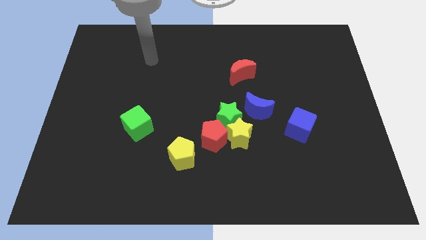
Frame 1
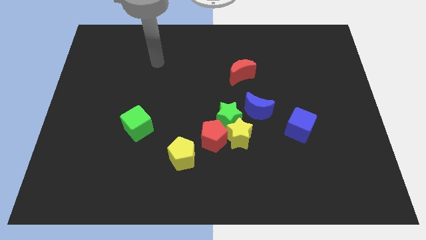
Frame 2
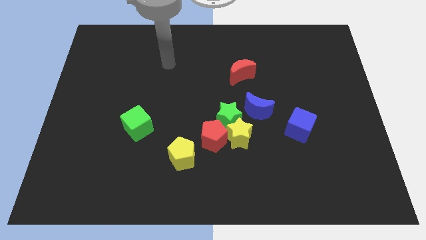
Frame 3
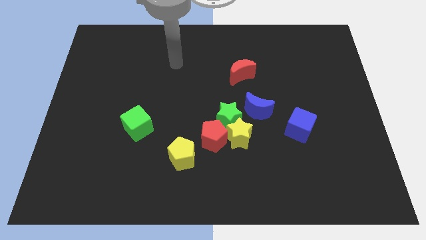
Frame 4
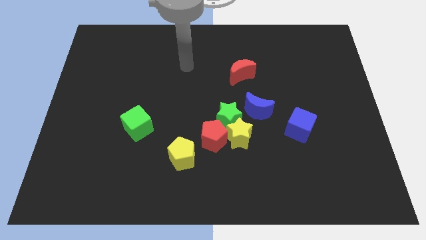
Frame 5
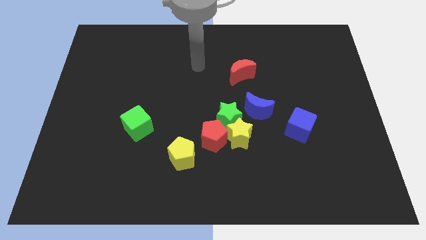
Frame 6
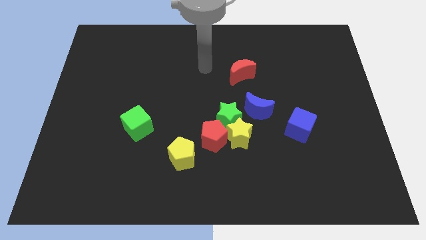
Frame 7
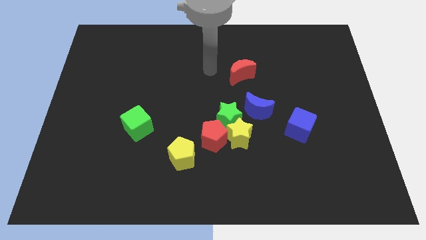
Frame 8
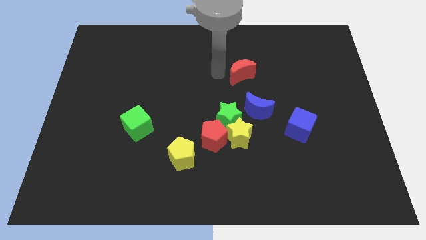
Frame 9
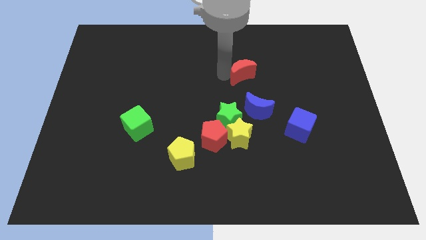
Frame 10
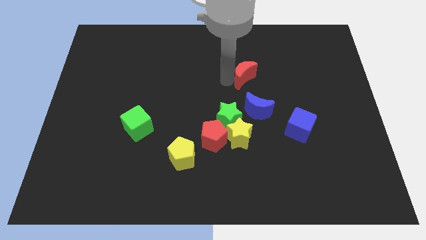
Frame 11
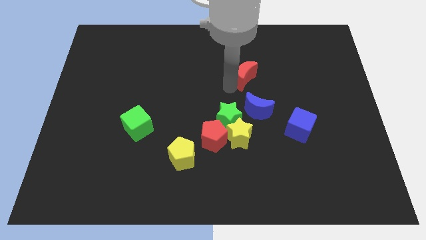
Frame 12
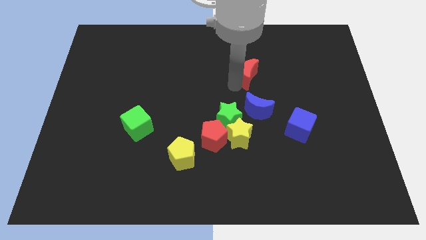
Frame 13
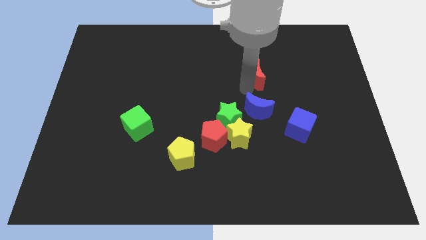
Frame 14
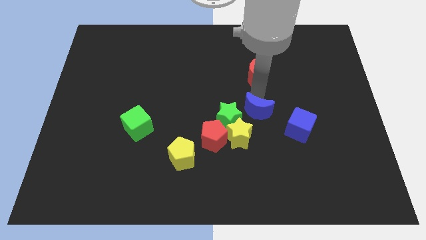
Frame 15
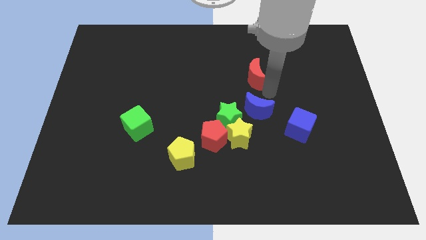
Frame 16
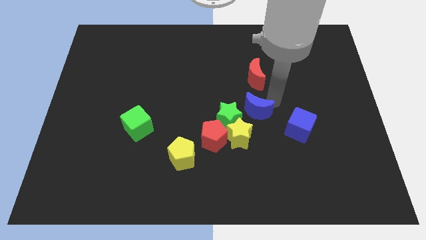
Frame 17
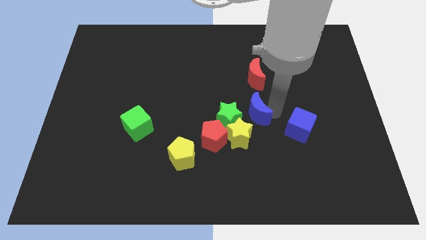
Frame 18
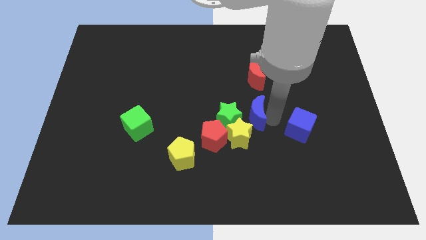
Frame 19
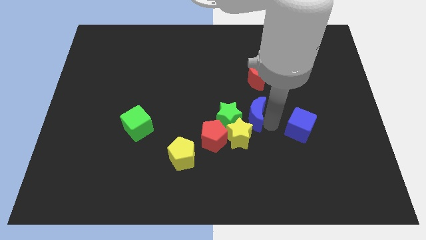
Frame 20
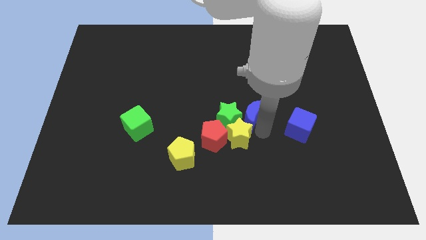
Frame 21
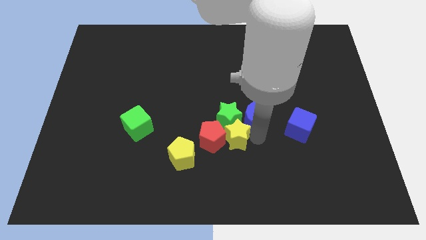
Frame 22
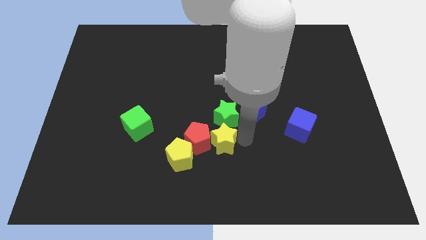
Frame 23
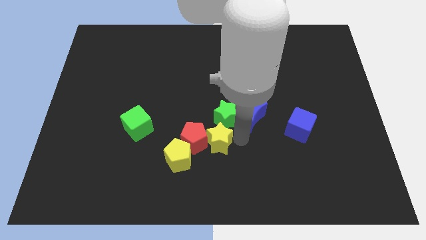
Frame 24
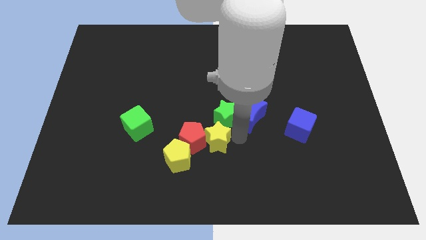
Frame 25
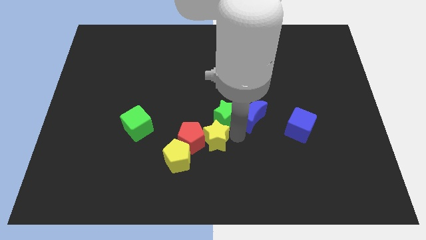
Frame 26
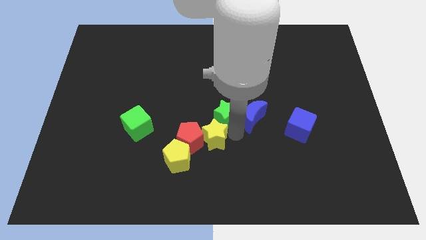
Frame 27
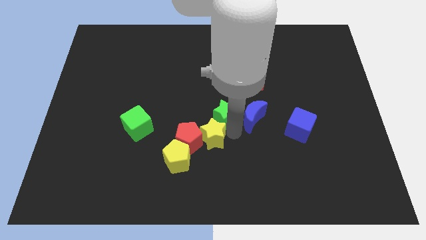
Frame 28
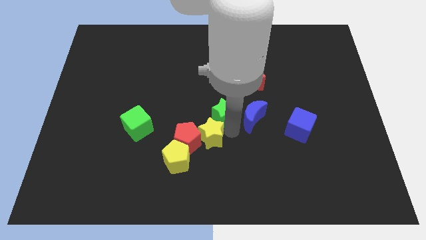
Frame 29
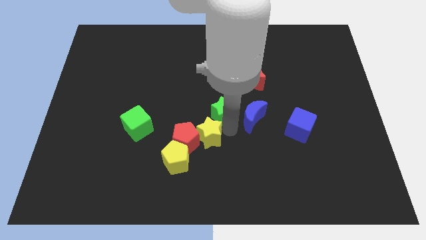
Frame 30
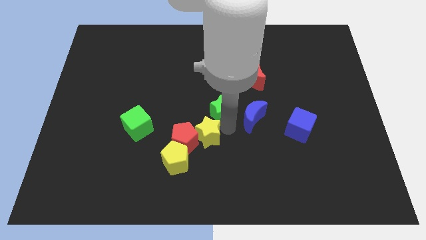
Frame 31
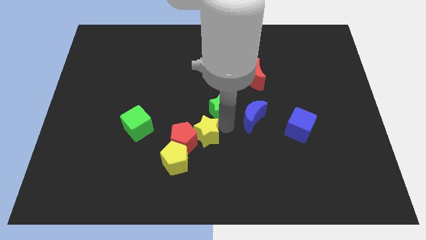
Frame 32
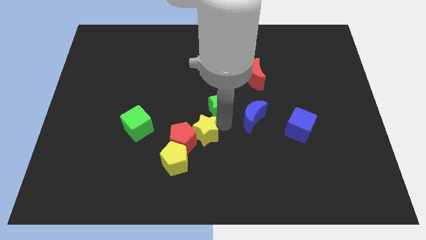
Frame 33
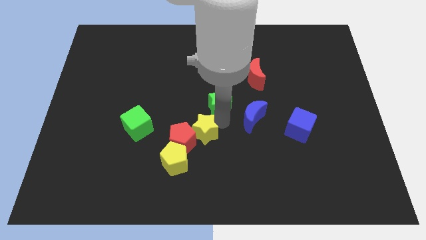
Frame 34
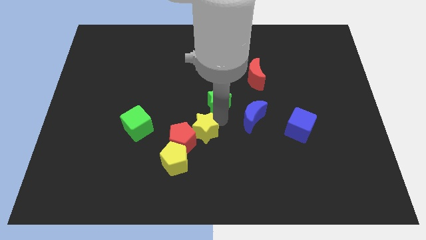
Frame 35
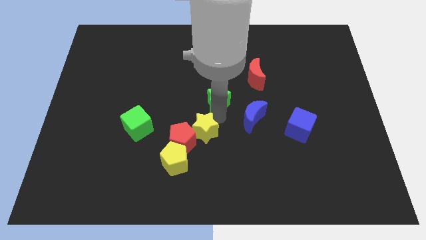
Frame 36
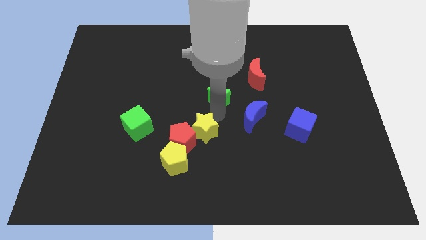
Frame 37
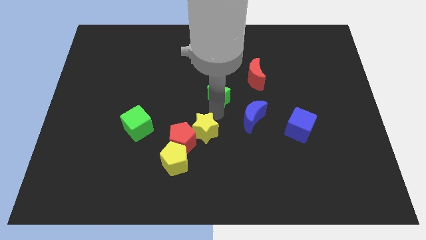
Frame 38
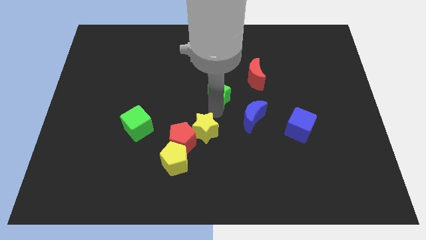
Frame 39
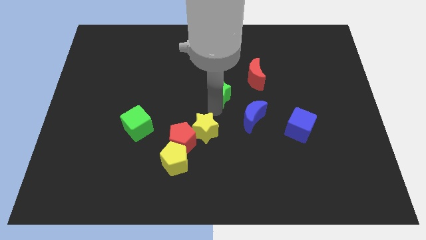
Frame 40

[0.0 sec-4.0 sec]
separate the green star from the yellow star, red pentagon, and blue moon

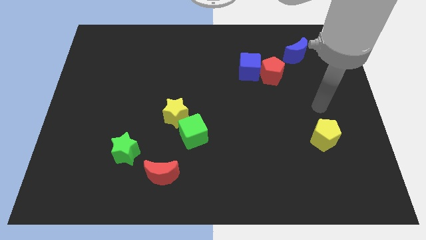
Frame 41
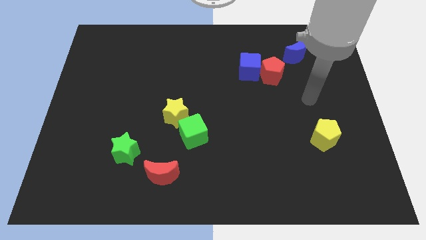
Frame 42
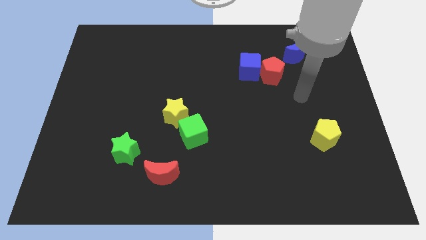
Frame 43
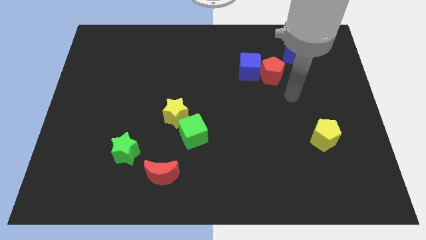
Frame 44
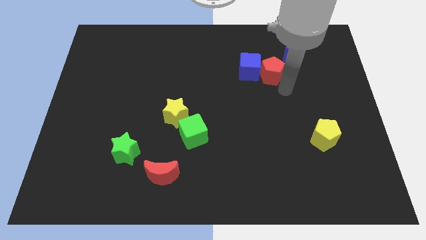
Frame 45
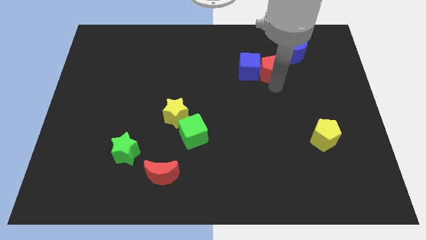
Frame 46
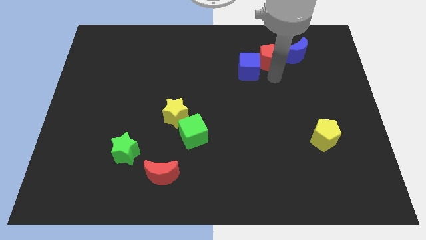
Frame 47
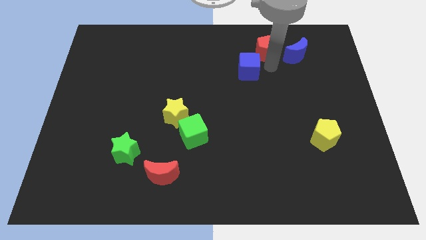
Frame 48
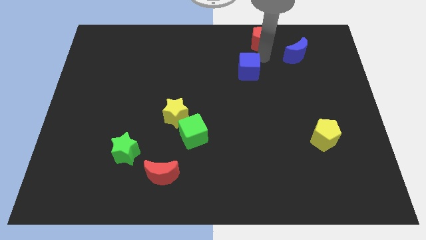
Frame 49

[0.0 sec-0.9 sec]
separate the blue cube from the red pentagon

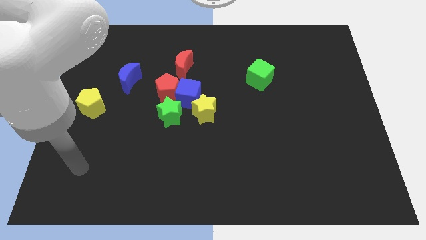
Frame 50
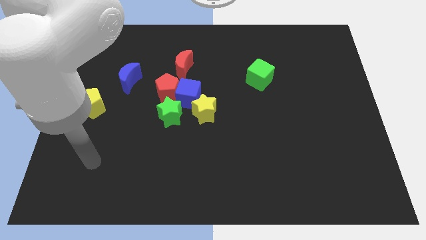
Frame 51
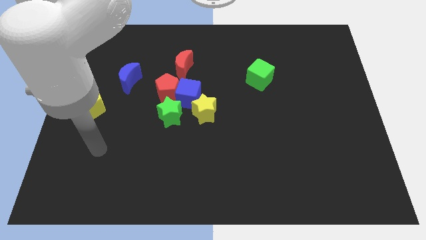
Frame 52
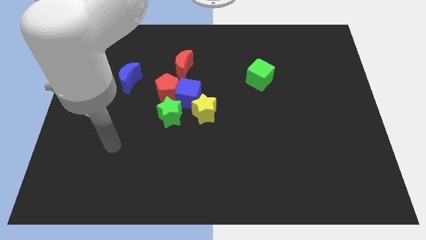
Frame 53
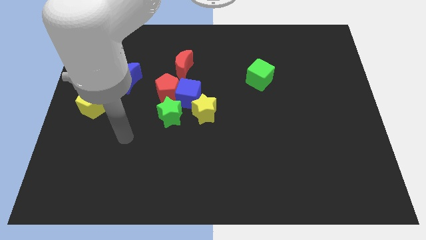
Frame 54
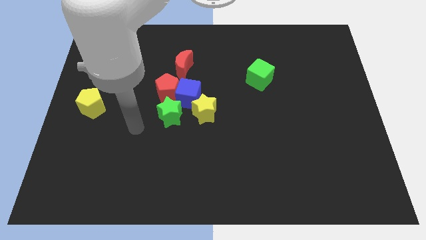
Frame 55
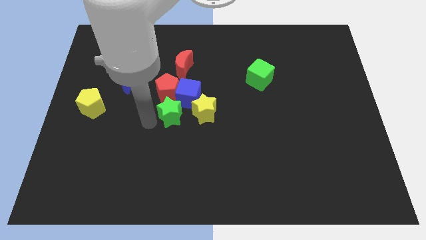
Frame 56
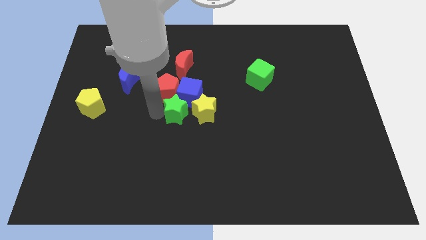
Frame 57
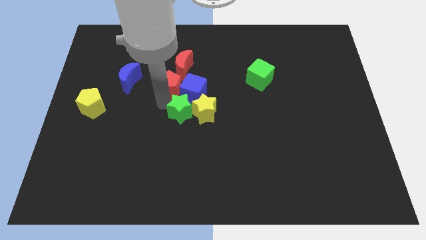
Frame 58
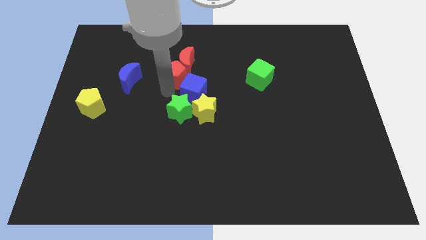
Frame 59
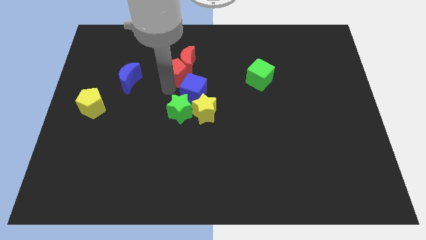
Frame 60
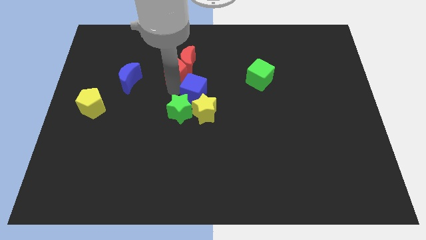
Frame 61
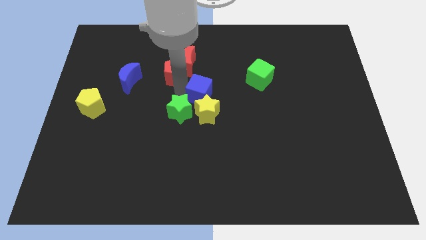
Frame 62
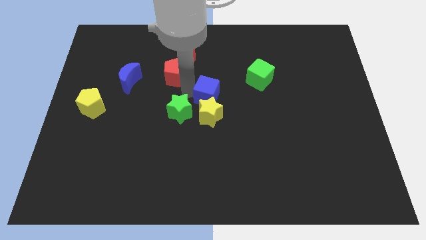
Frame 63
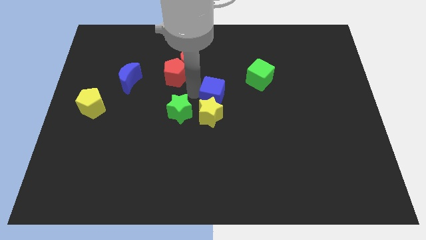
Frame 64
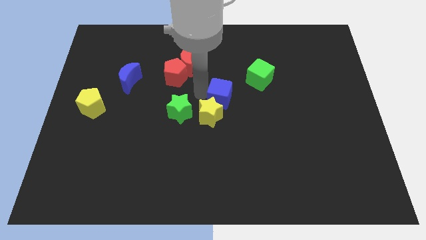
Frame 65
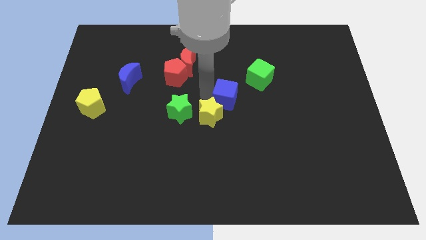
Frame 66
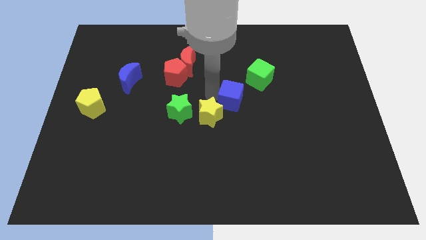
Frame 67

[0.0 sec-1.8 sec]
move the blue cube away from the group of blocks

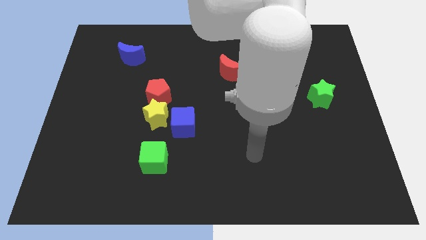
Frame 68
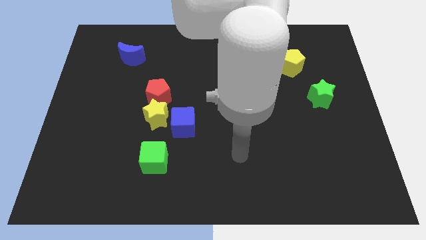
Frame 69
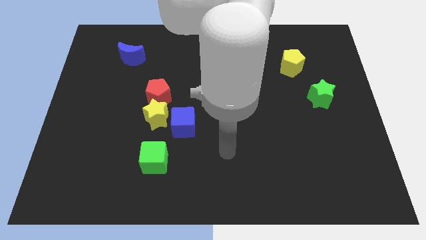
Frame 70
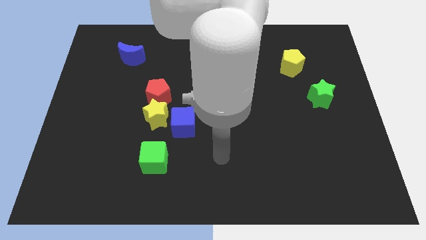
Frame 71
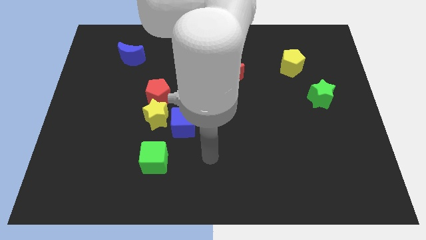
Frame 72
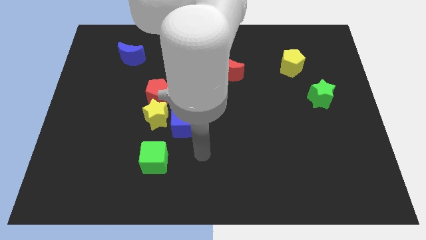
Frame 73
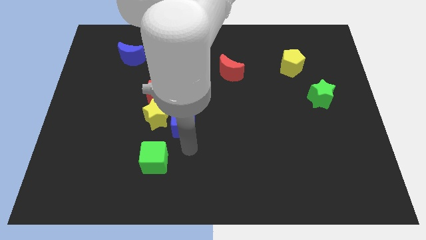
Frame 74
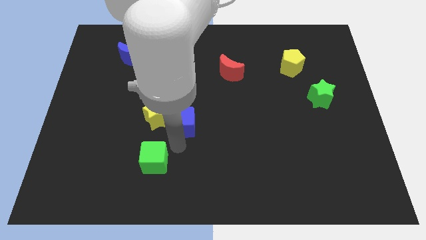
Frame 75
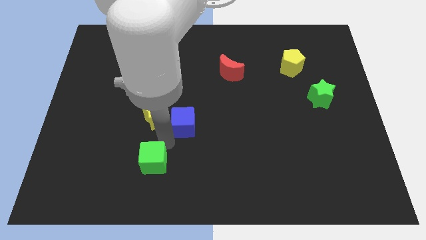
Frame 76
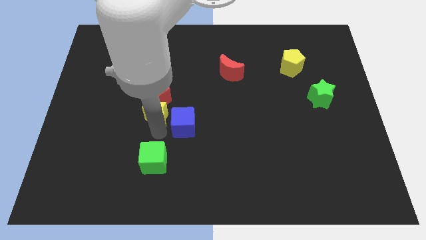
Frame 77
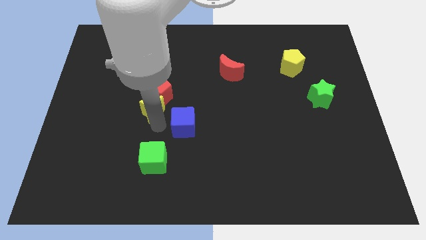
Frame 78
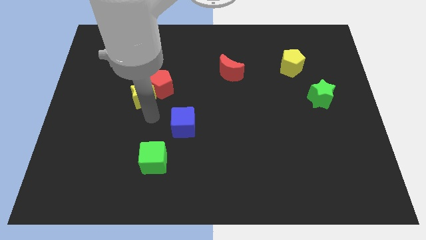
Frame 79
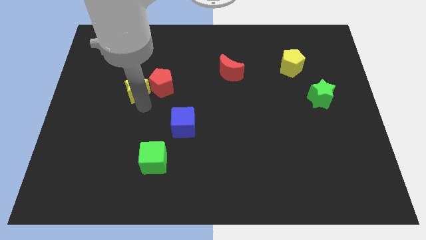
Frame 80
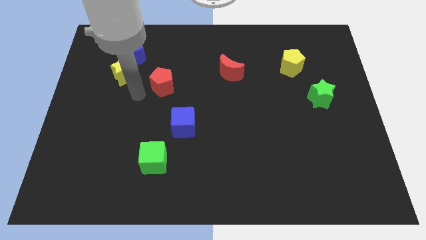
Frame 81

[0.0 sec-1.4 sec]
move the red pentagon away from the yellow star

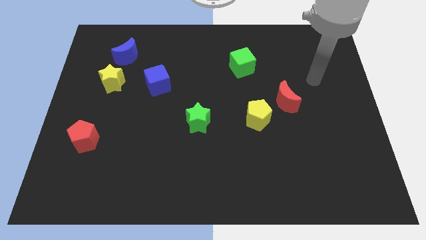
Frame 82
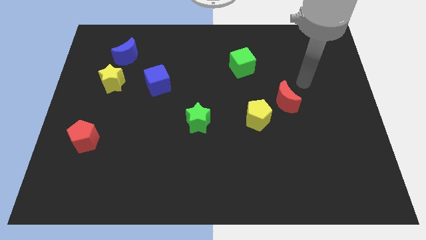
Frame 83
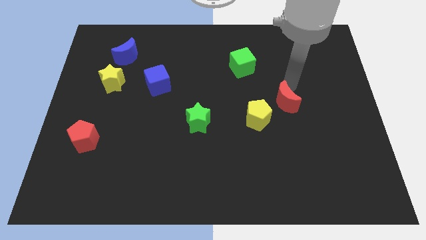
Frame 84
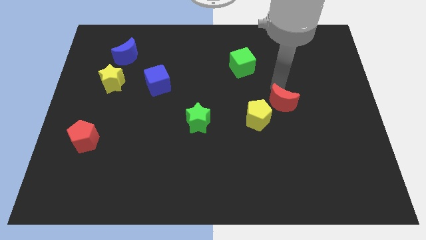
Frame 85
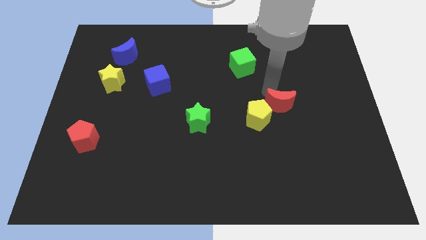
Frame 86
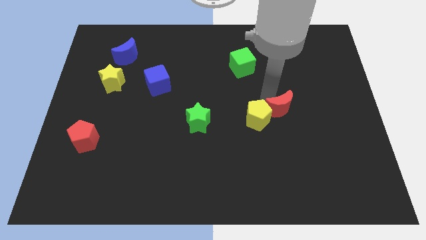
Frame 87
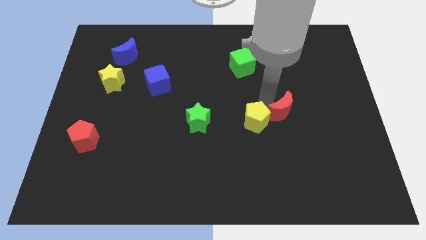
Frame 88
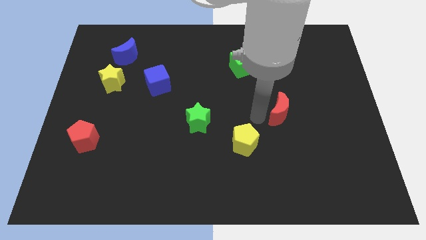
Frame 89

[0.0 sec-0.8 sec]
separate the red moon from the yellow pentagon

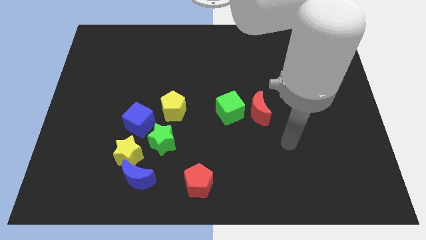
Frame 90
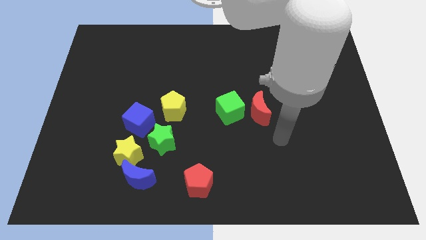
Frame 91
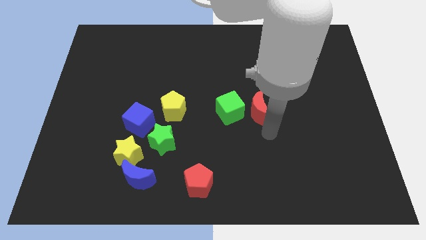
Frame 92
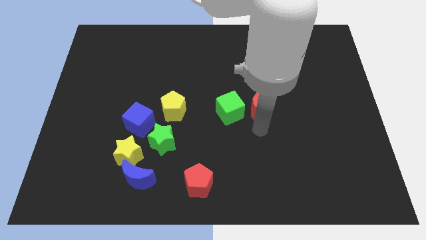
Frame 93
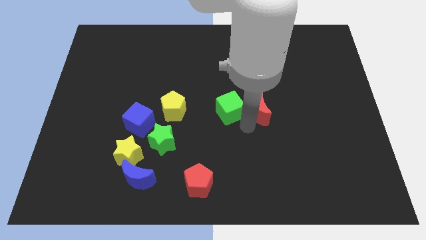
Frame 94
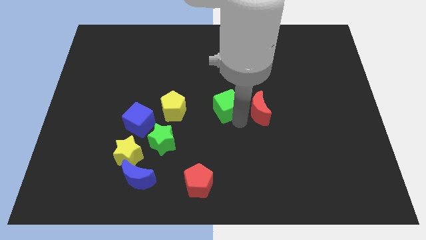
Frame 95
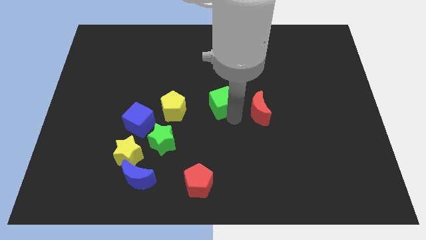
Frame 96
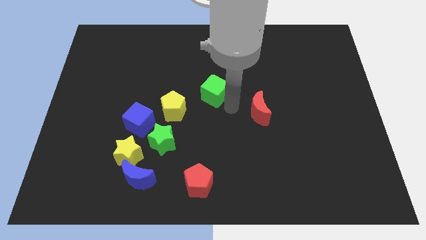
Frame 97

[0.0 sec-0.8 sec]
separate the red moon from the green cube
